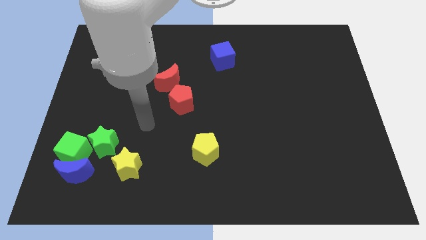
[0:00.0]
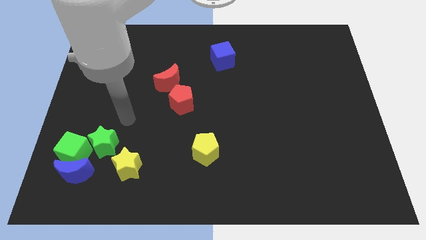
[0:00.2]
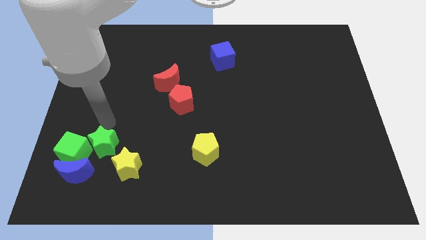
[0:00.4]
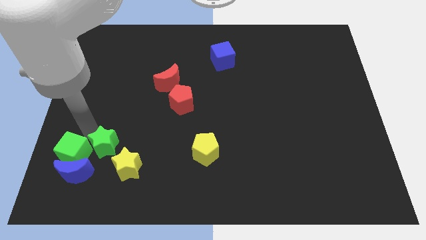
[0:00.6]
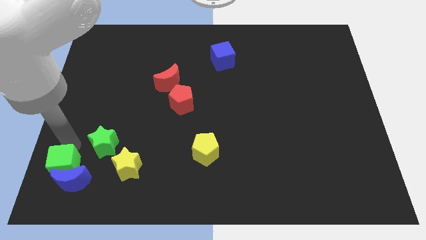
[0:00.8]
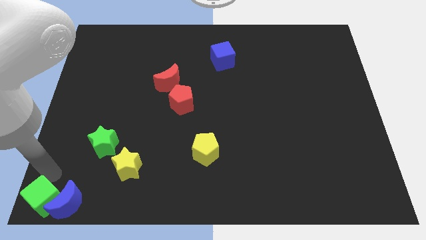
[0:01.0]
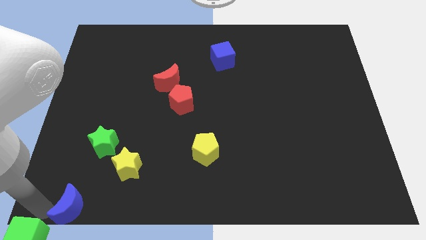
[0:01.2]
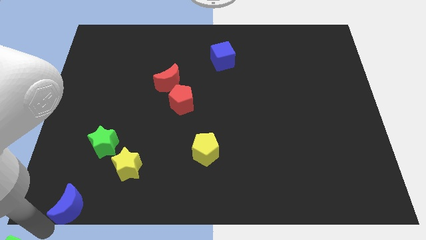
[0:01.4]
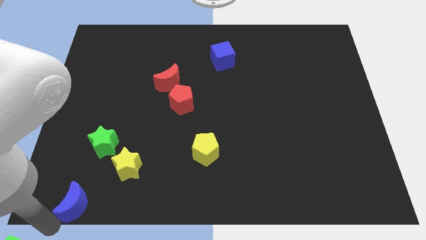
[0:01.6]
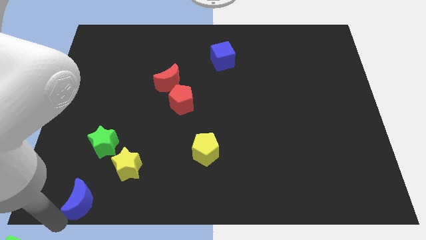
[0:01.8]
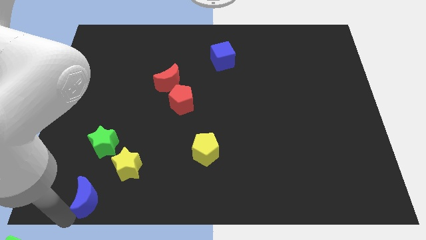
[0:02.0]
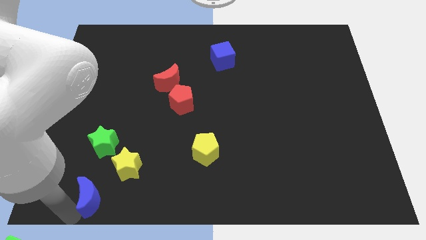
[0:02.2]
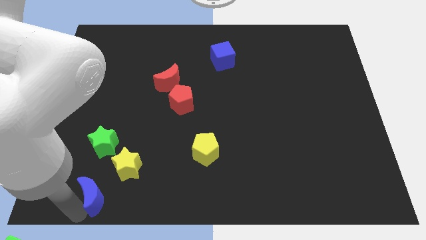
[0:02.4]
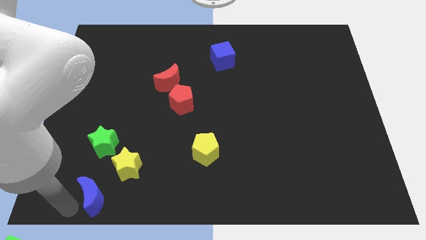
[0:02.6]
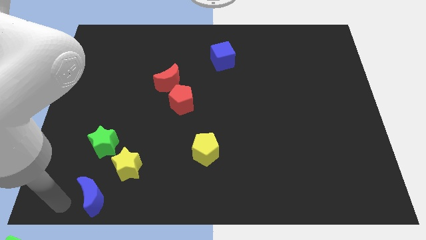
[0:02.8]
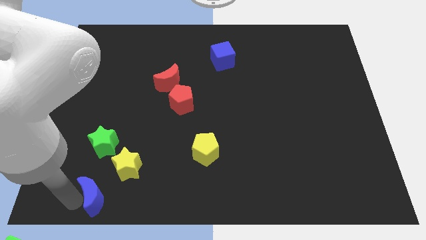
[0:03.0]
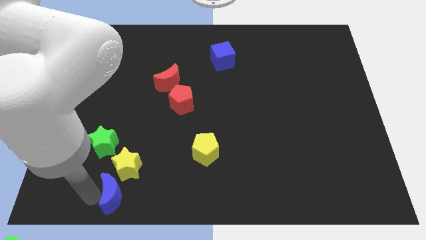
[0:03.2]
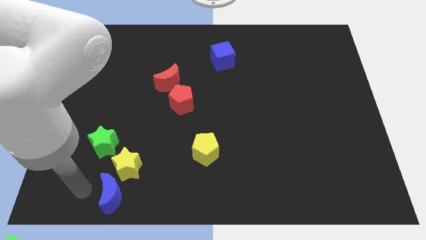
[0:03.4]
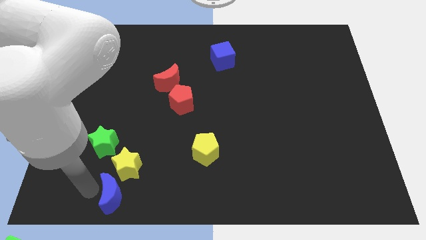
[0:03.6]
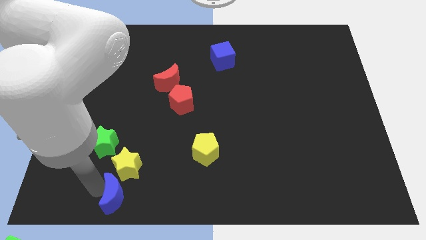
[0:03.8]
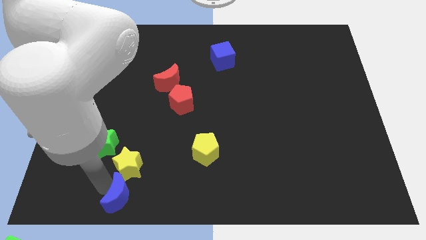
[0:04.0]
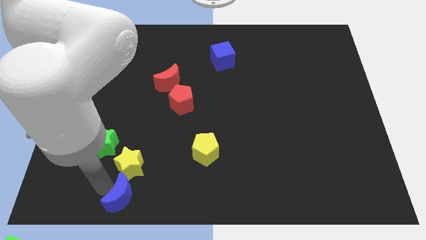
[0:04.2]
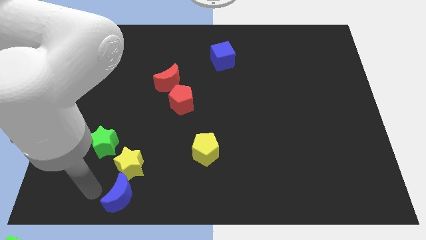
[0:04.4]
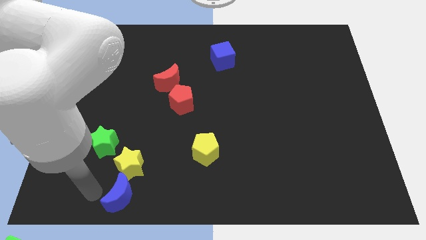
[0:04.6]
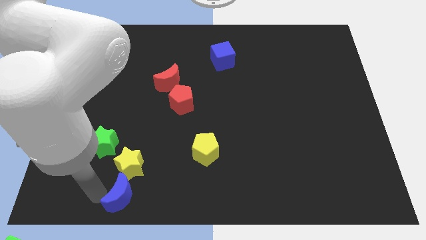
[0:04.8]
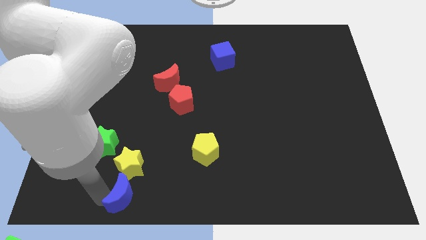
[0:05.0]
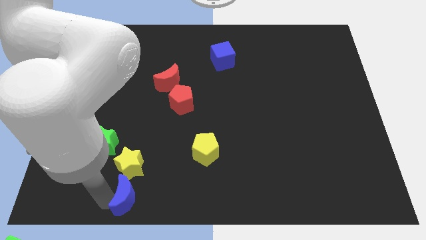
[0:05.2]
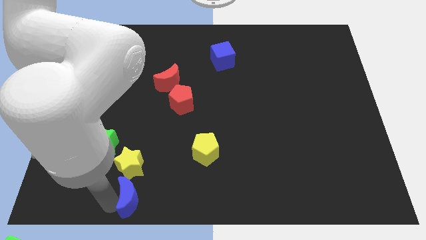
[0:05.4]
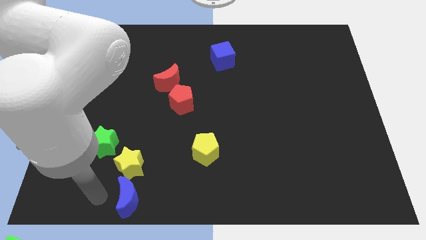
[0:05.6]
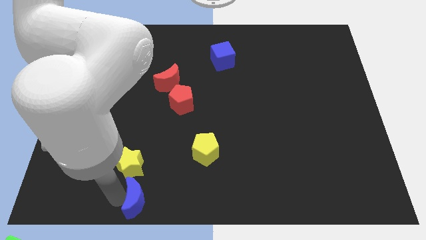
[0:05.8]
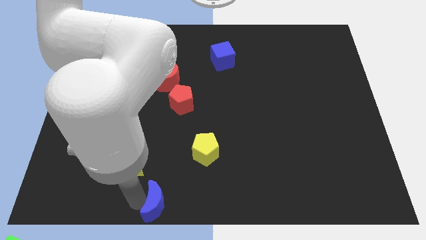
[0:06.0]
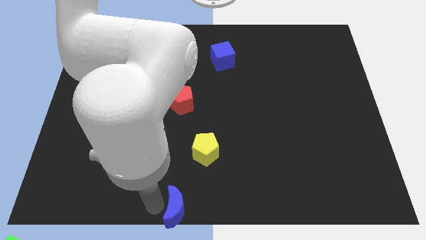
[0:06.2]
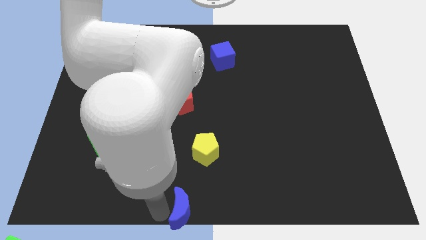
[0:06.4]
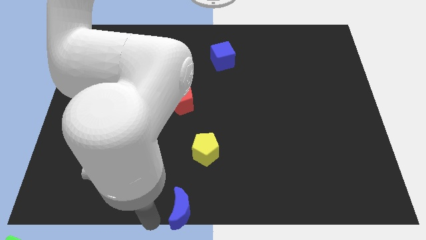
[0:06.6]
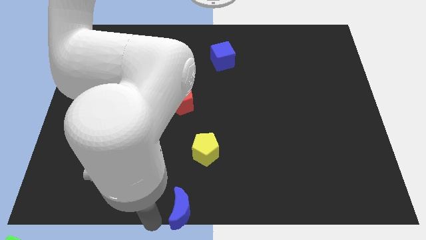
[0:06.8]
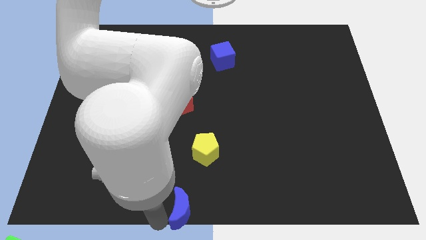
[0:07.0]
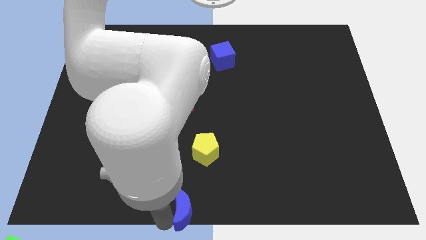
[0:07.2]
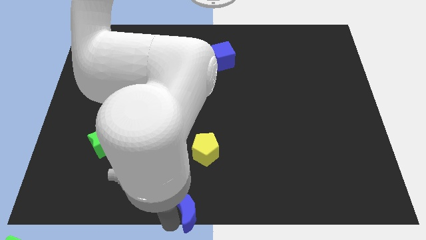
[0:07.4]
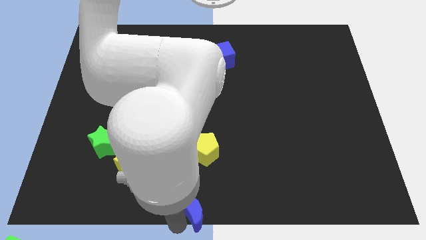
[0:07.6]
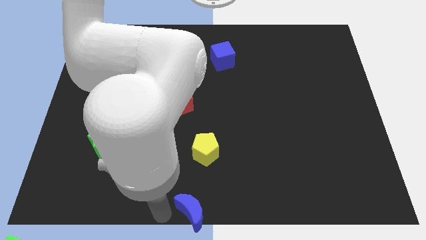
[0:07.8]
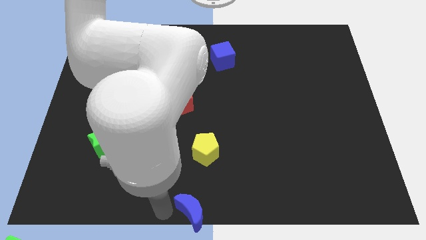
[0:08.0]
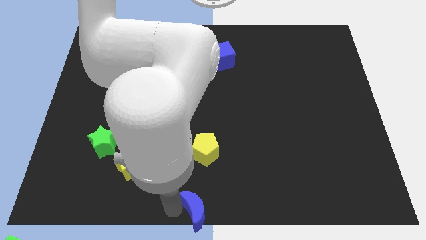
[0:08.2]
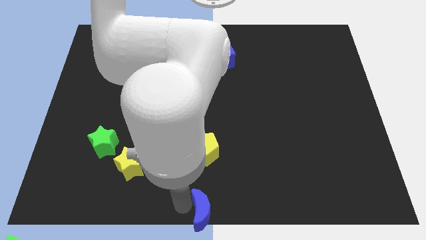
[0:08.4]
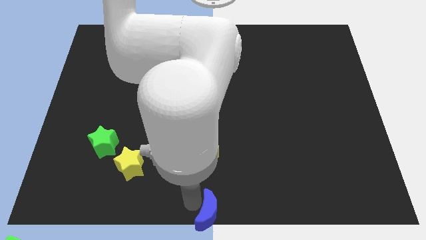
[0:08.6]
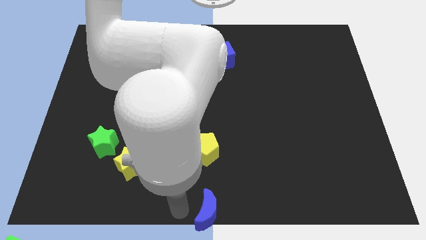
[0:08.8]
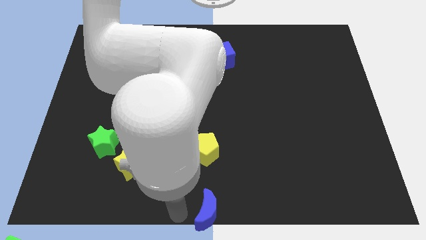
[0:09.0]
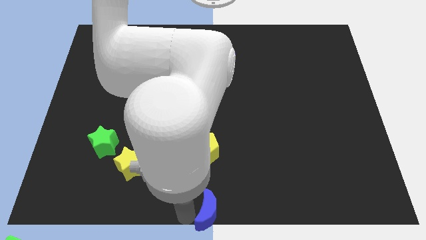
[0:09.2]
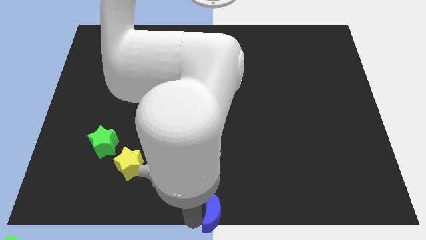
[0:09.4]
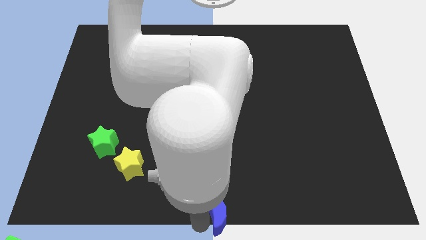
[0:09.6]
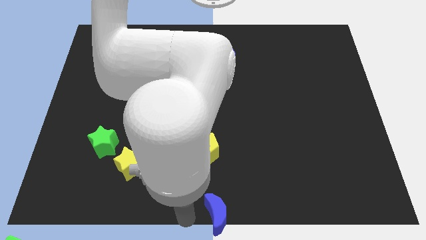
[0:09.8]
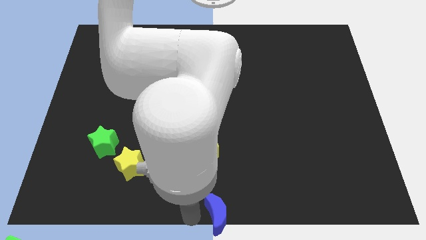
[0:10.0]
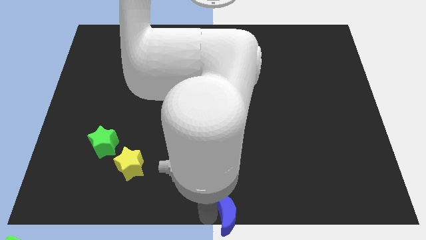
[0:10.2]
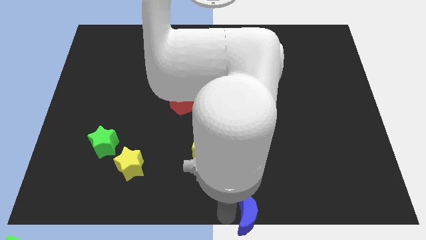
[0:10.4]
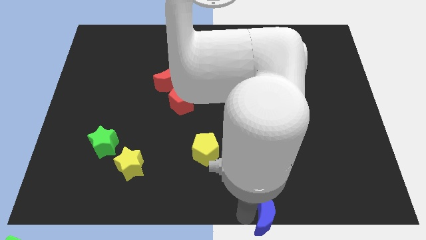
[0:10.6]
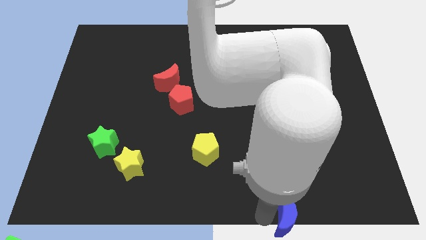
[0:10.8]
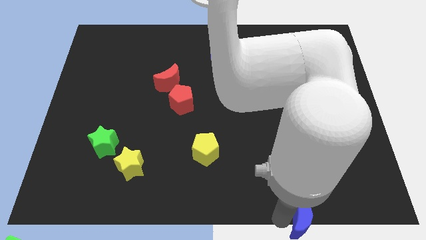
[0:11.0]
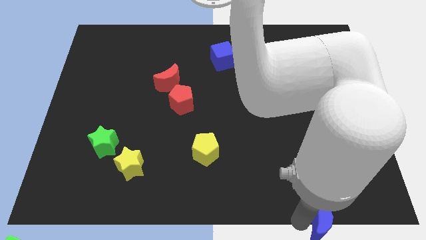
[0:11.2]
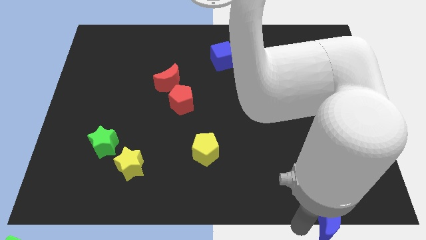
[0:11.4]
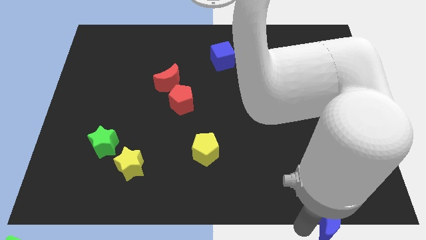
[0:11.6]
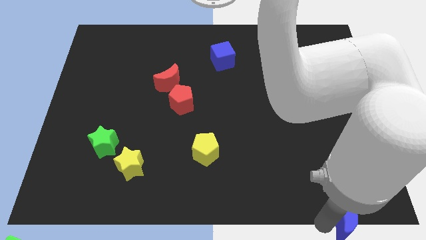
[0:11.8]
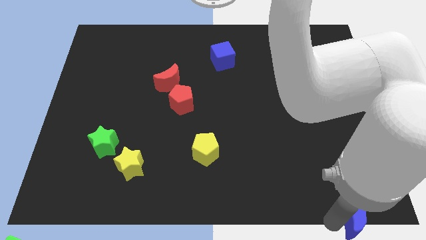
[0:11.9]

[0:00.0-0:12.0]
put the blue moon to the bottom right

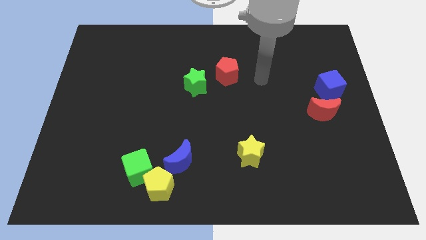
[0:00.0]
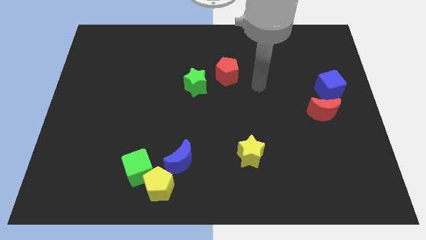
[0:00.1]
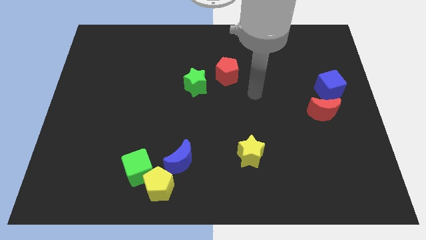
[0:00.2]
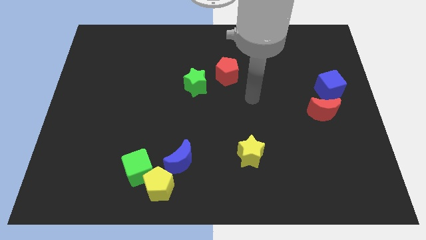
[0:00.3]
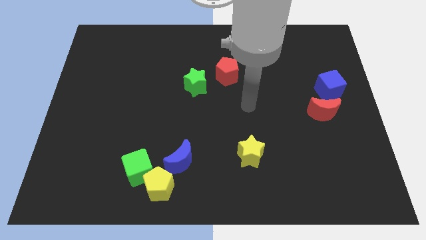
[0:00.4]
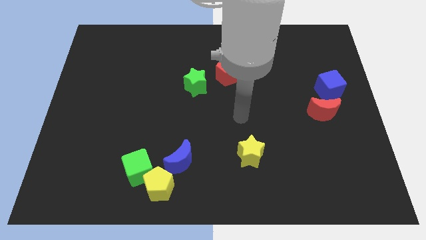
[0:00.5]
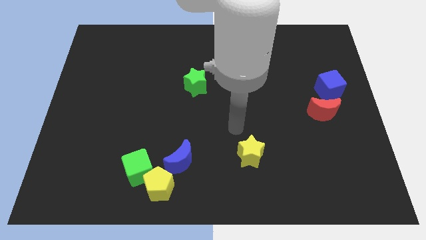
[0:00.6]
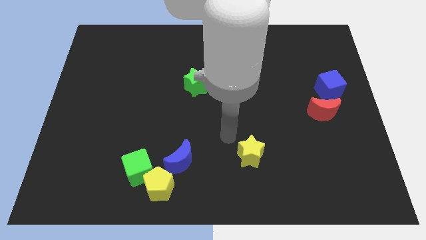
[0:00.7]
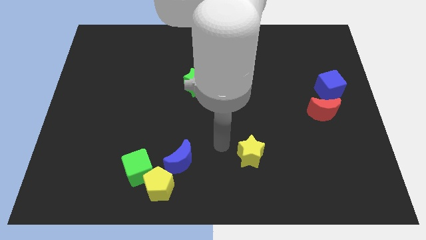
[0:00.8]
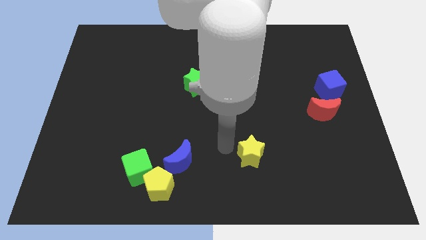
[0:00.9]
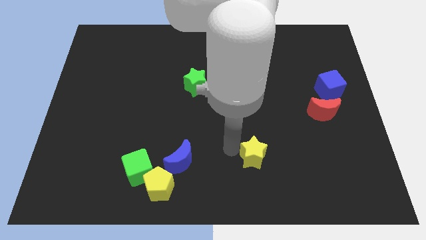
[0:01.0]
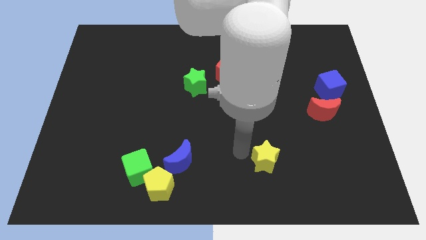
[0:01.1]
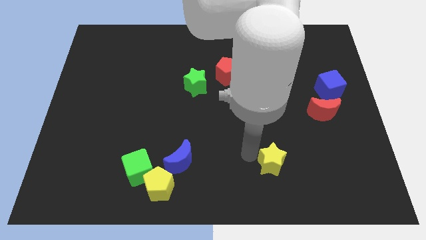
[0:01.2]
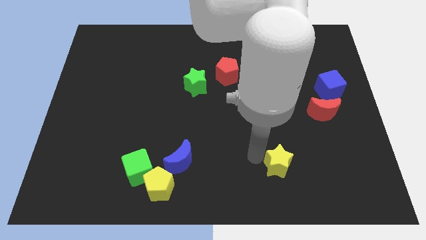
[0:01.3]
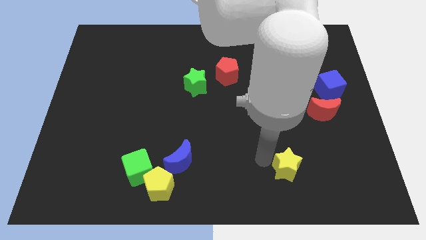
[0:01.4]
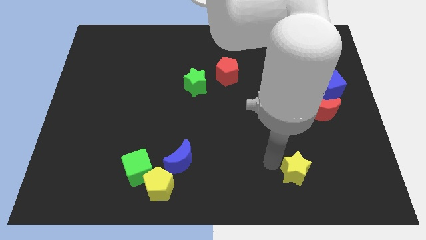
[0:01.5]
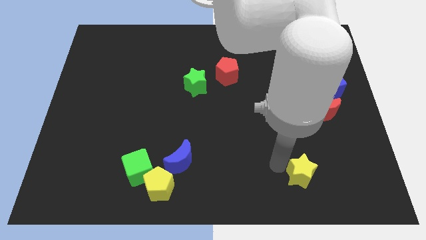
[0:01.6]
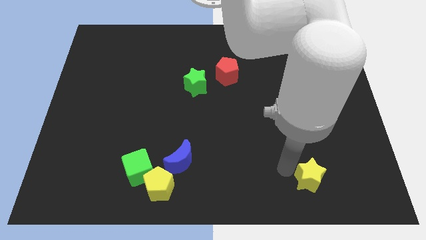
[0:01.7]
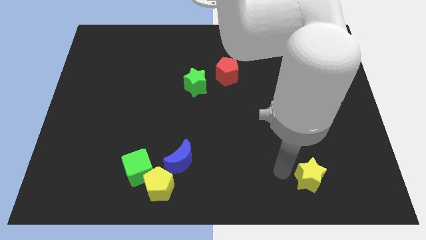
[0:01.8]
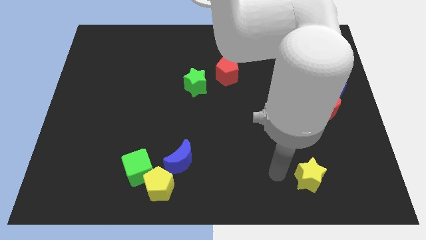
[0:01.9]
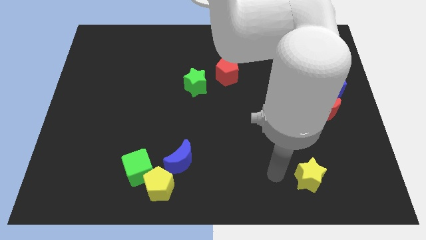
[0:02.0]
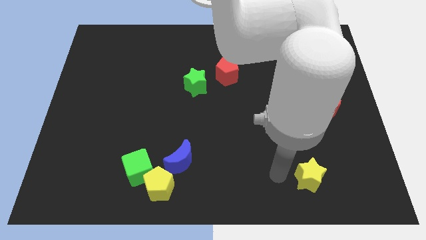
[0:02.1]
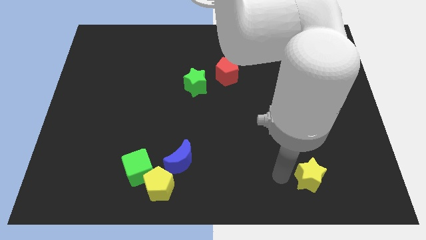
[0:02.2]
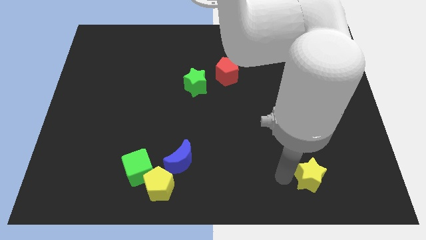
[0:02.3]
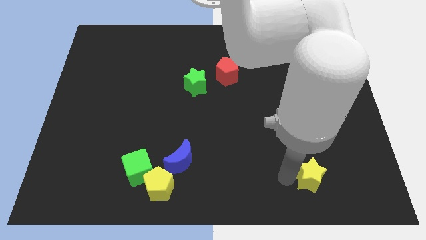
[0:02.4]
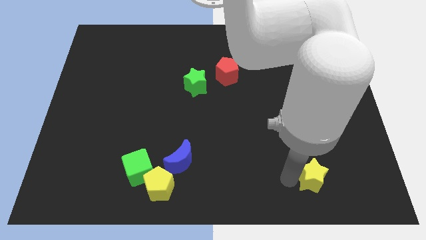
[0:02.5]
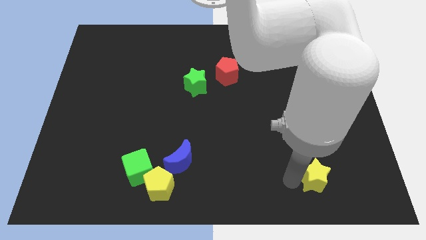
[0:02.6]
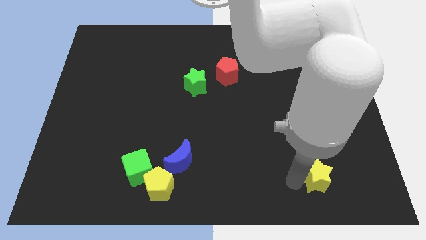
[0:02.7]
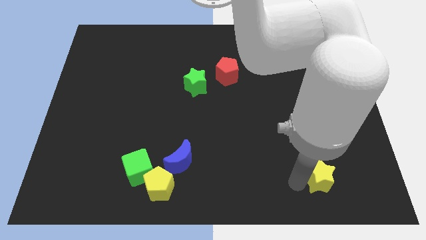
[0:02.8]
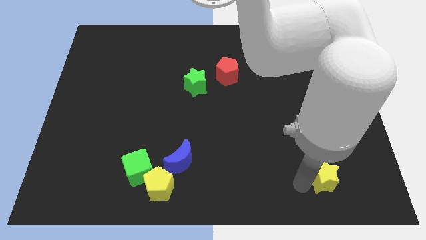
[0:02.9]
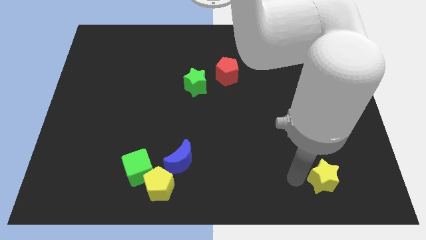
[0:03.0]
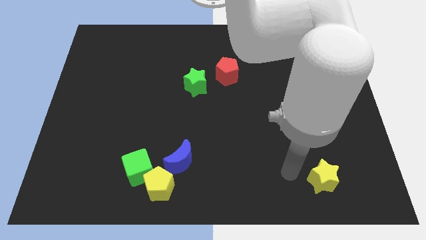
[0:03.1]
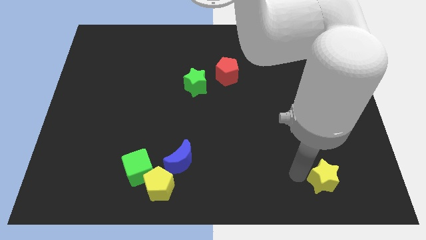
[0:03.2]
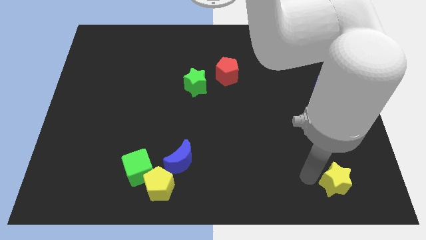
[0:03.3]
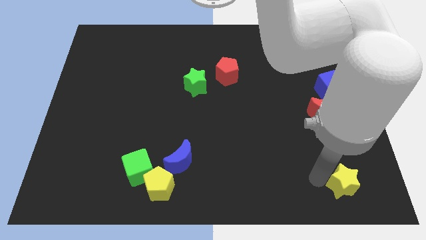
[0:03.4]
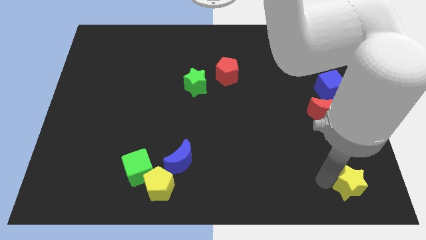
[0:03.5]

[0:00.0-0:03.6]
push the yellow star to the bottom right corner
